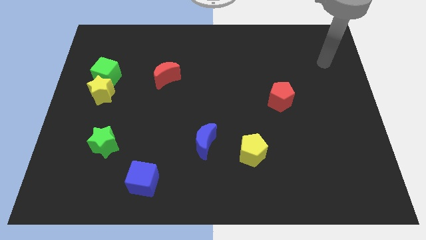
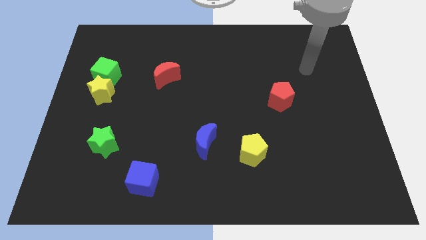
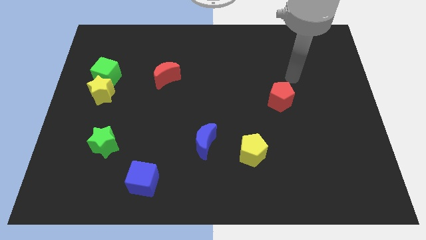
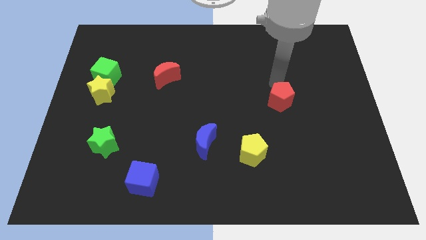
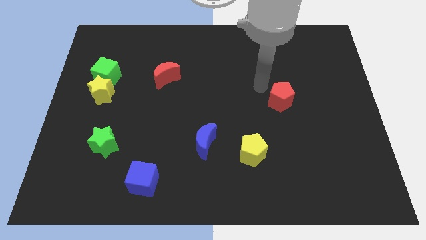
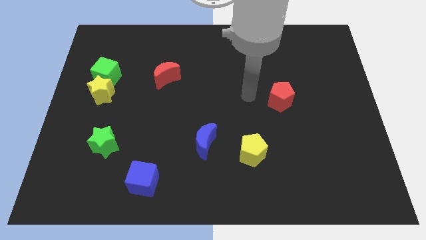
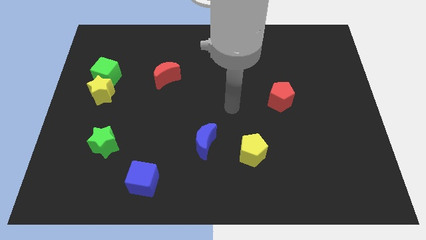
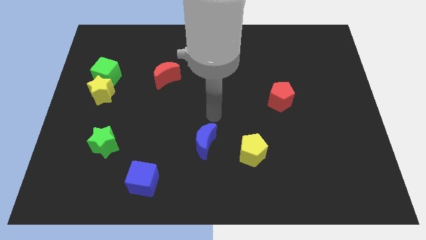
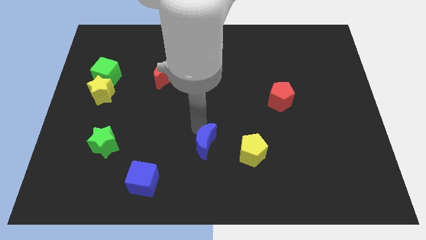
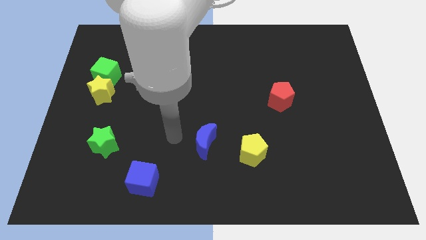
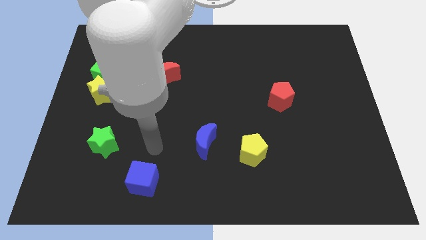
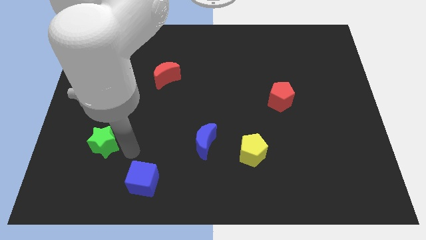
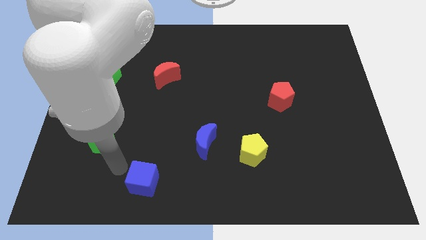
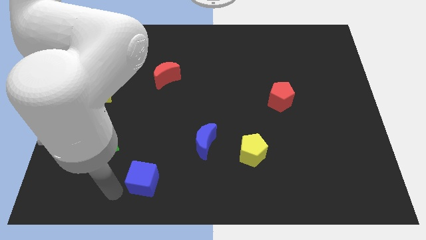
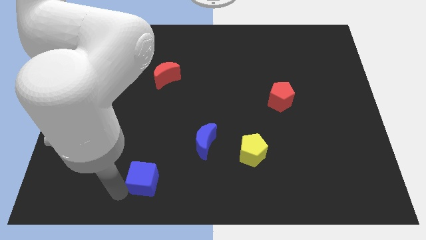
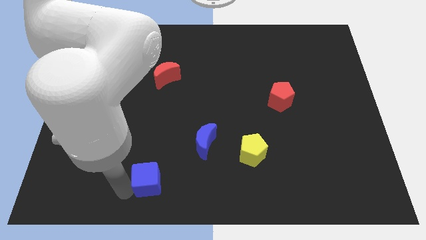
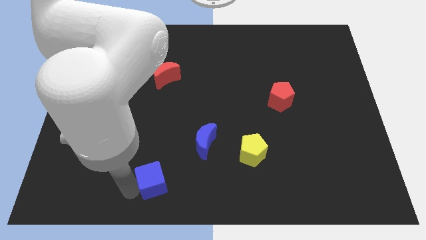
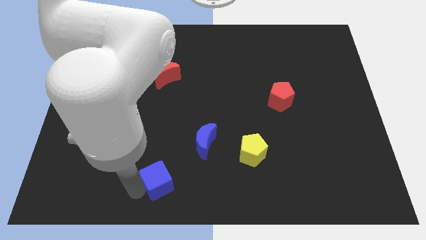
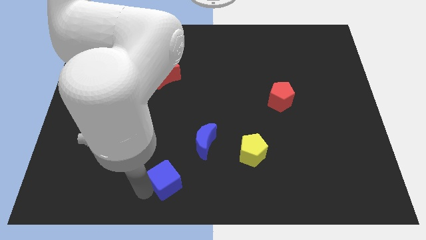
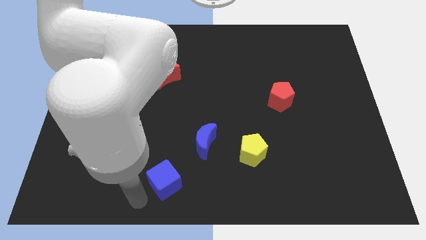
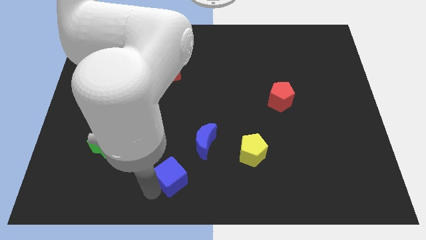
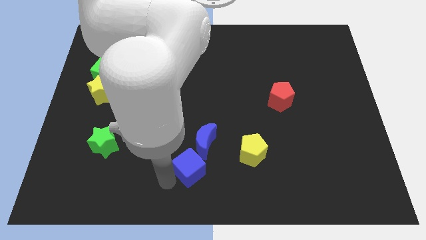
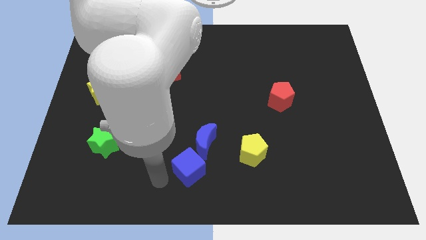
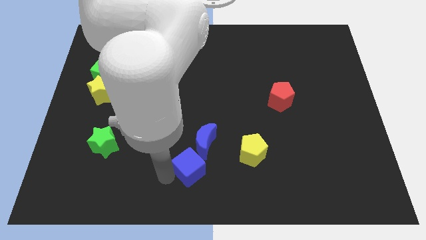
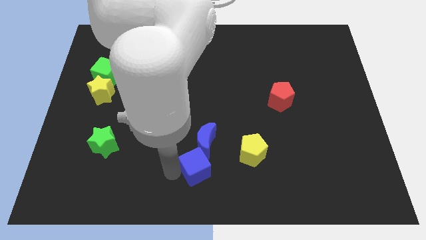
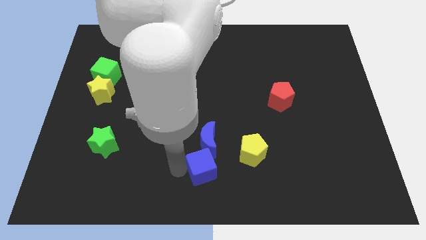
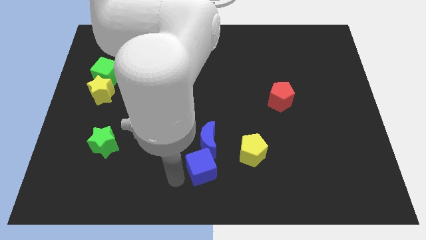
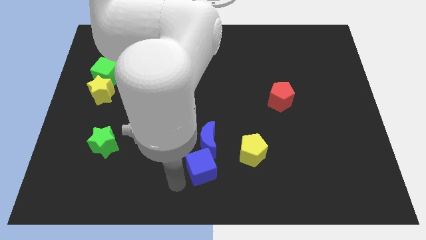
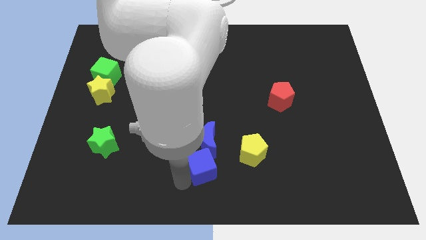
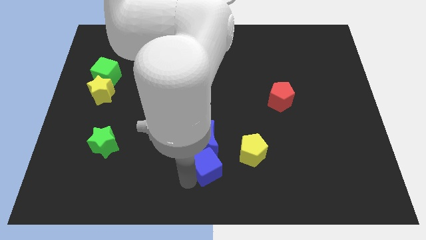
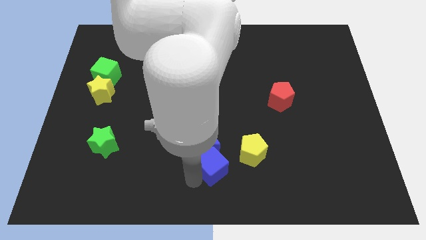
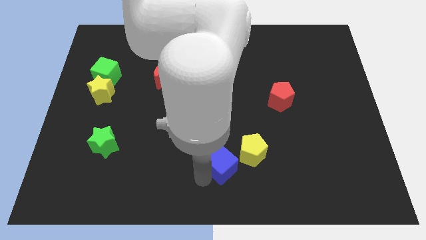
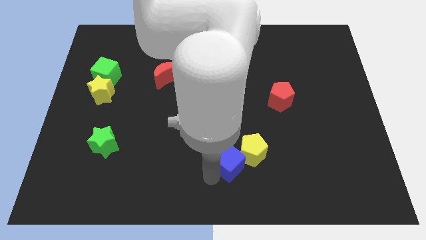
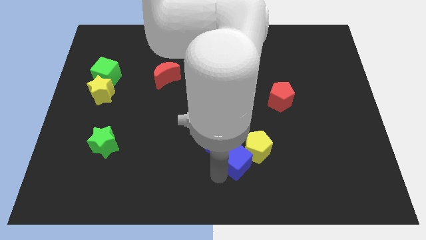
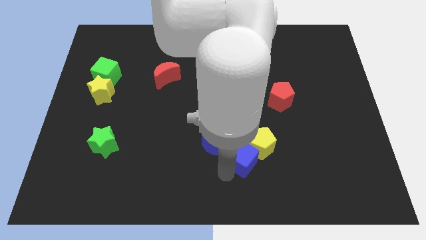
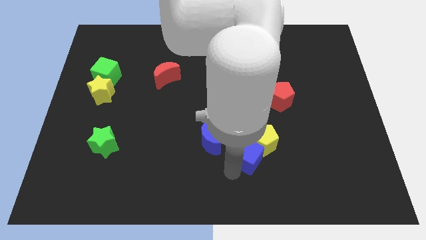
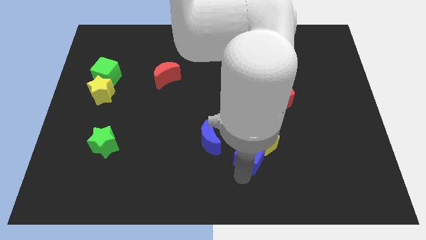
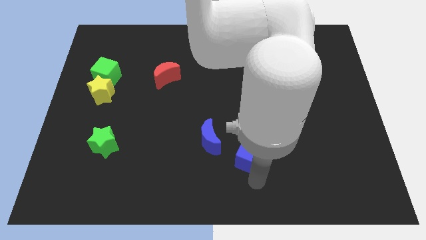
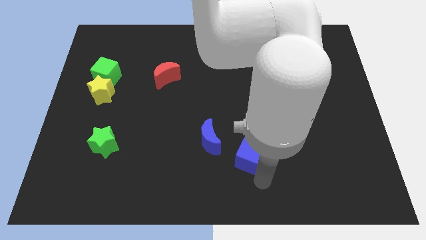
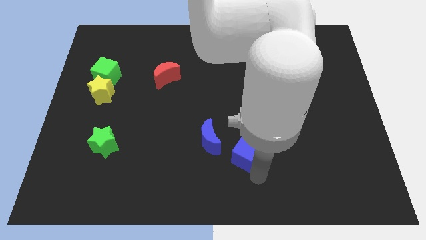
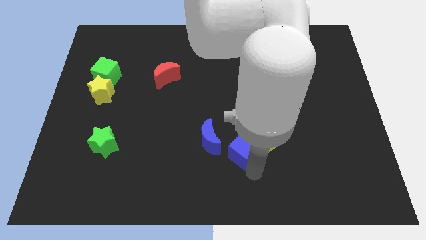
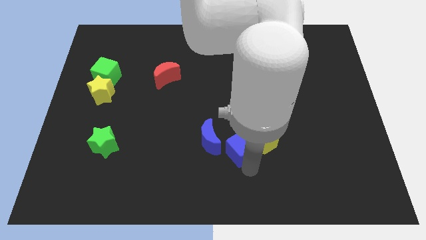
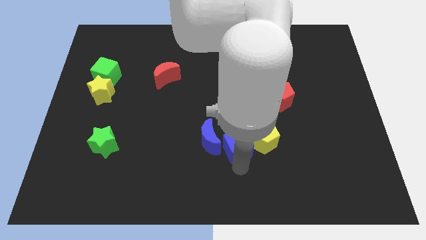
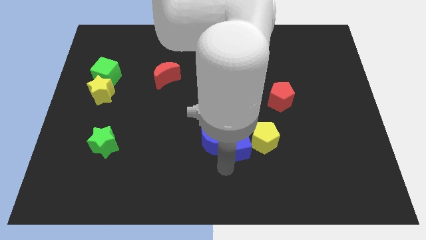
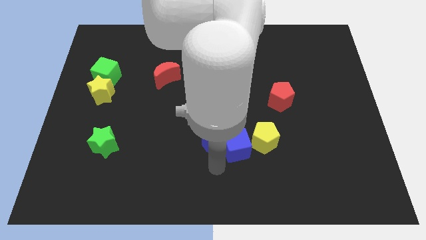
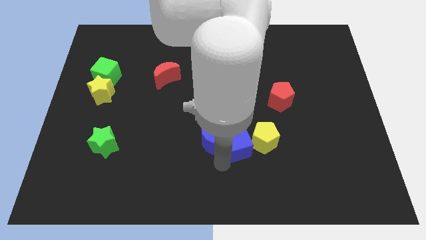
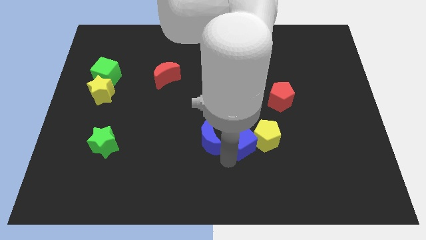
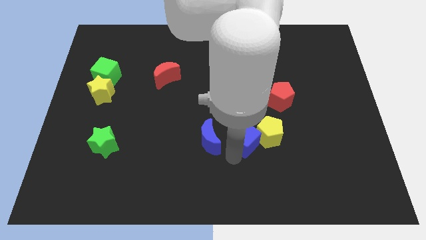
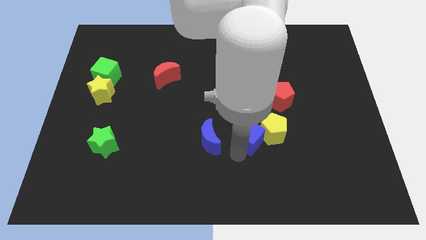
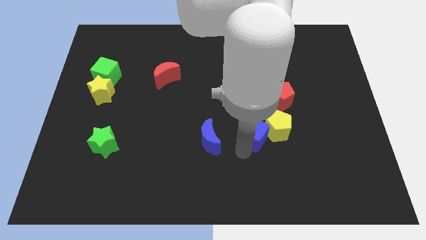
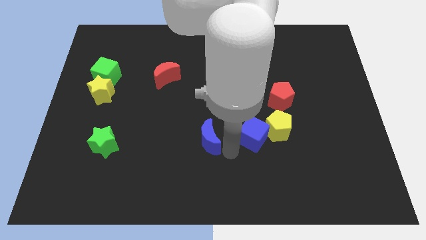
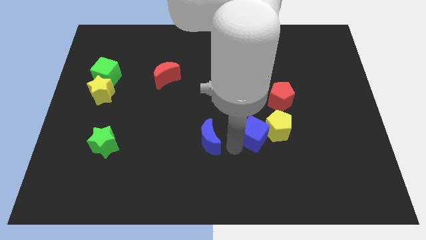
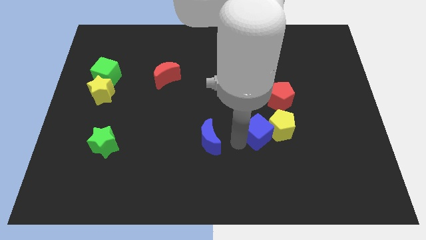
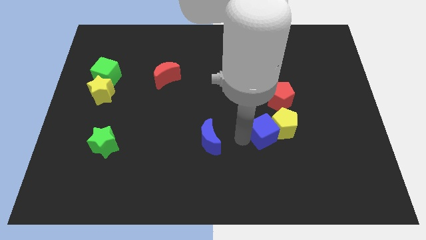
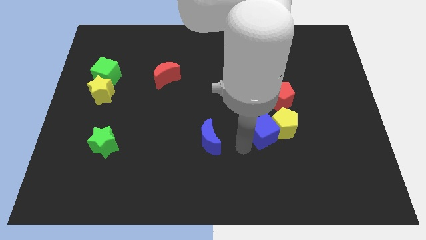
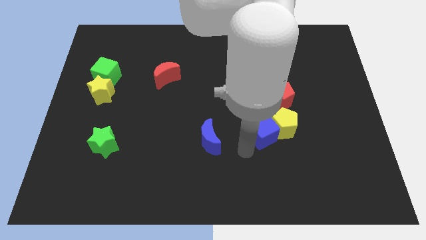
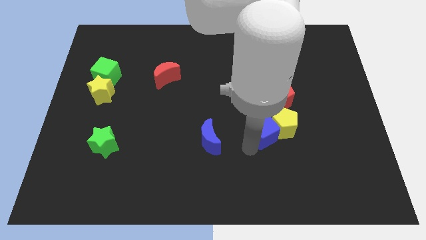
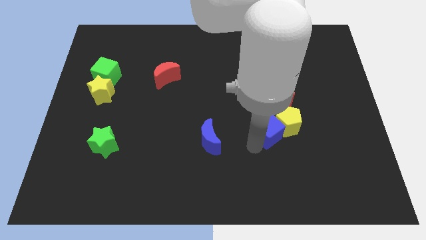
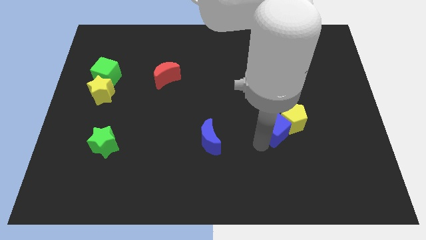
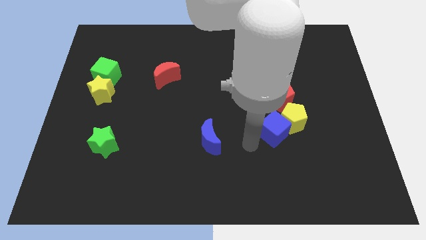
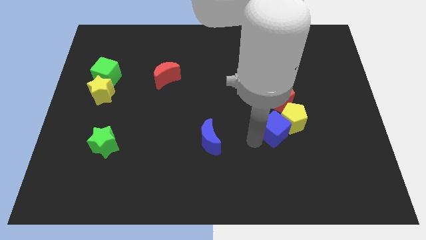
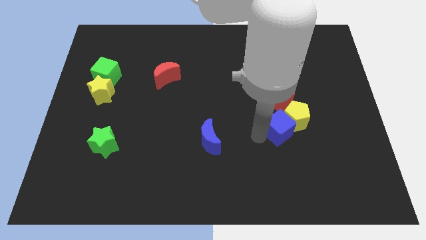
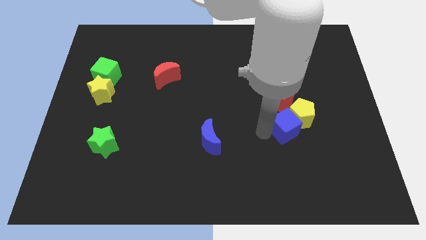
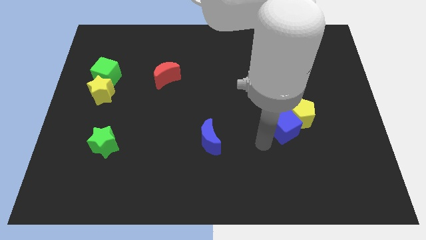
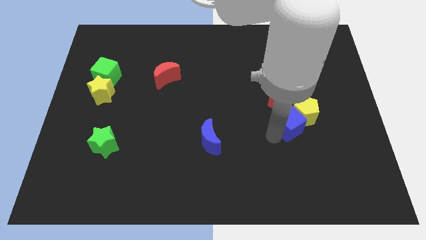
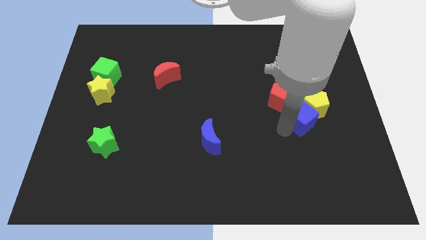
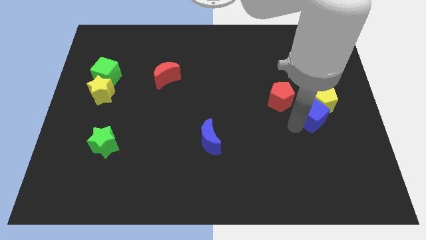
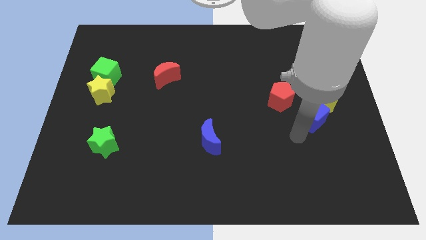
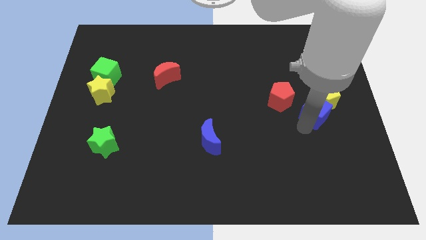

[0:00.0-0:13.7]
push the blue cube right of the red pentagon
